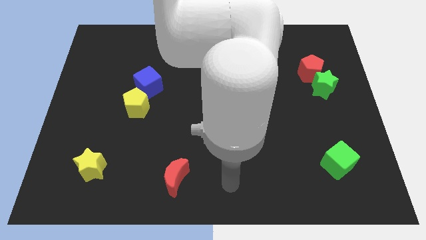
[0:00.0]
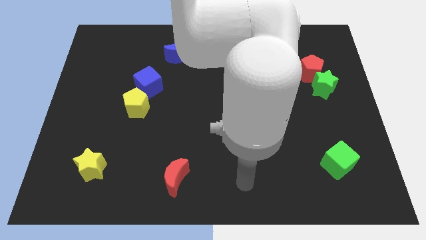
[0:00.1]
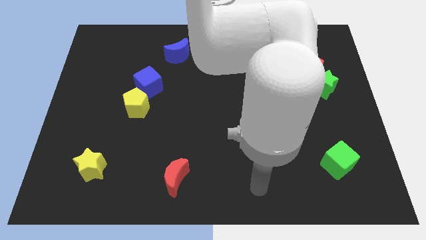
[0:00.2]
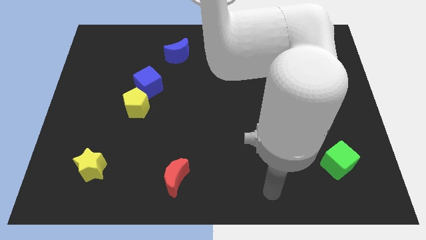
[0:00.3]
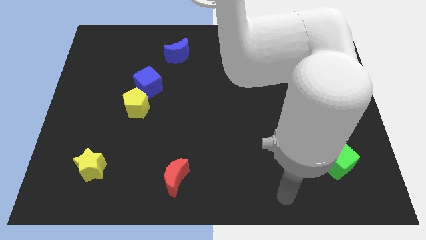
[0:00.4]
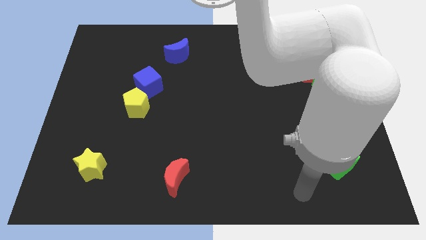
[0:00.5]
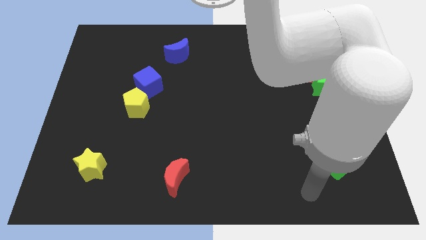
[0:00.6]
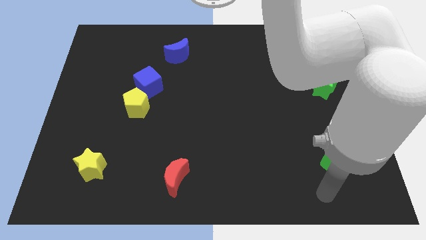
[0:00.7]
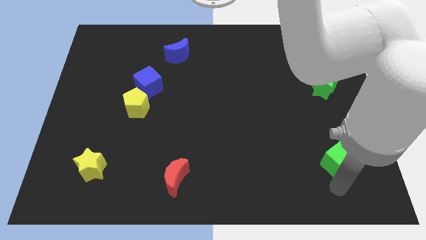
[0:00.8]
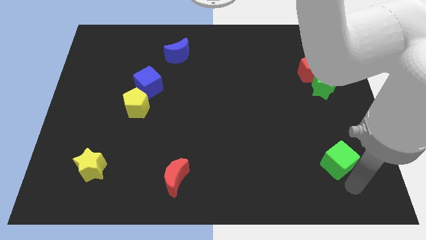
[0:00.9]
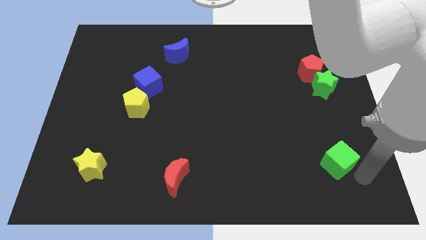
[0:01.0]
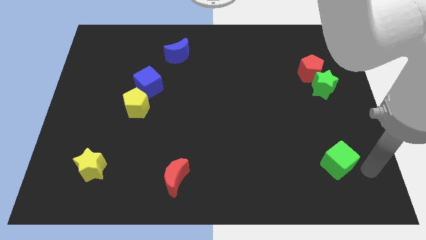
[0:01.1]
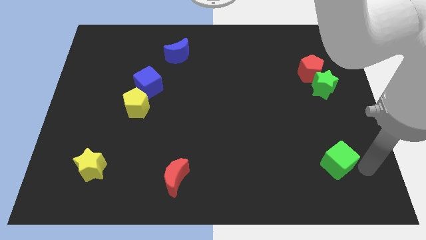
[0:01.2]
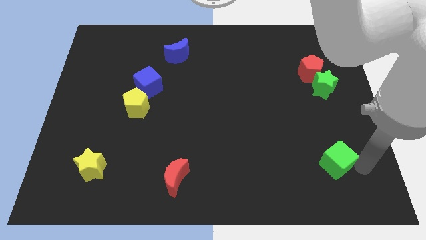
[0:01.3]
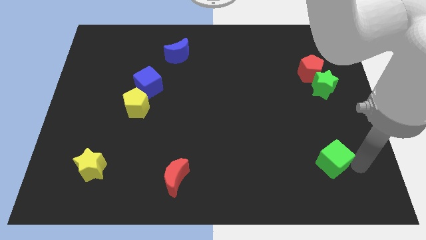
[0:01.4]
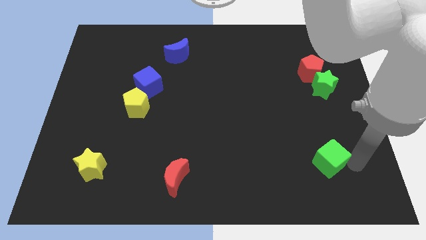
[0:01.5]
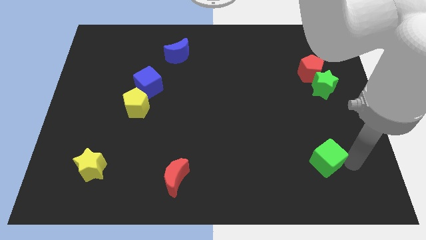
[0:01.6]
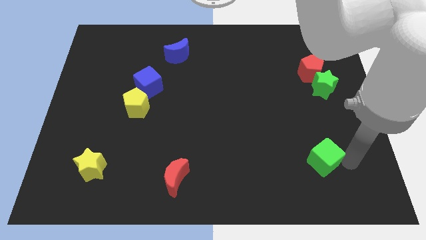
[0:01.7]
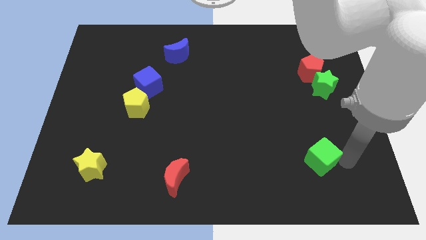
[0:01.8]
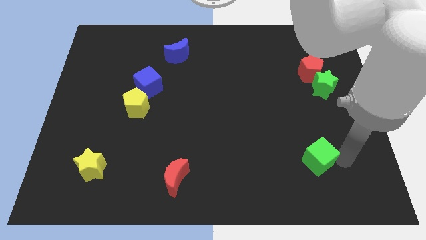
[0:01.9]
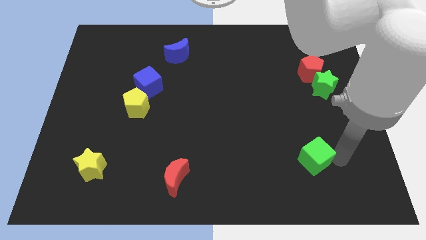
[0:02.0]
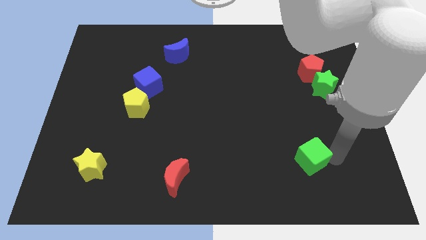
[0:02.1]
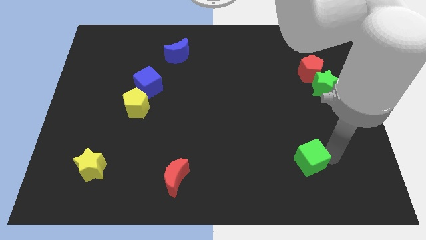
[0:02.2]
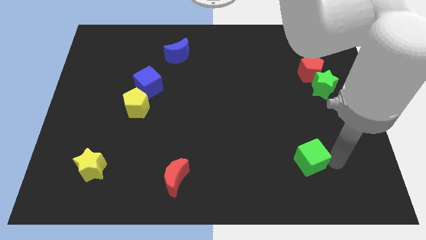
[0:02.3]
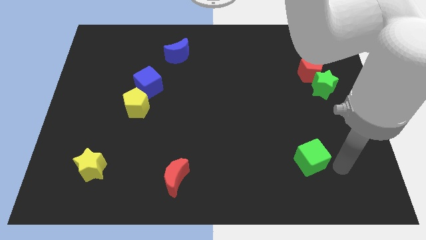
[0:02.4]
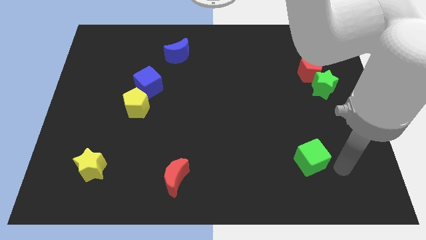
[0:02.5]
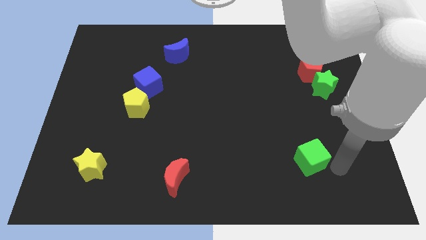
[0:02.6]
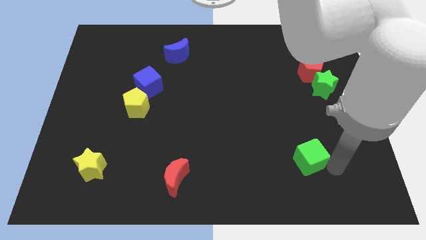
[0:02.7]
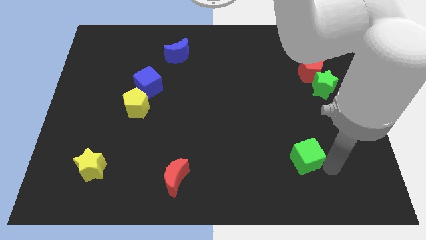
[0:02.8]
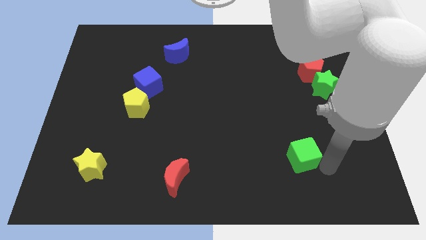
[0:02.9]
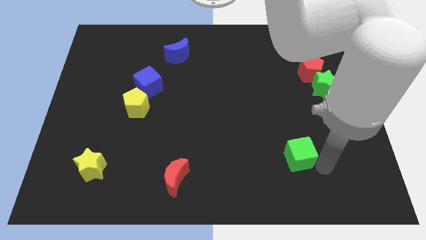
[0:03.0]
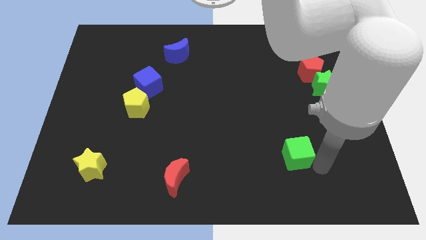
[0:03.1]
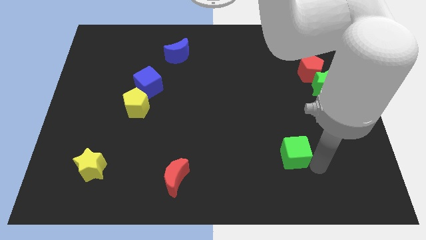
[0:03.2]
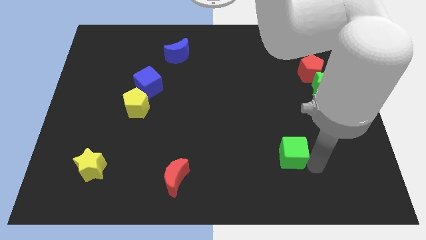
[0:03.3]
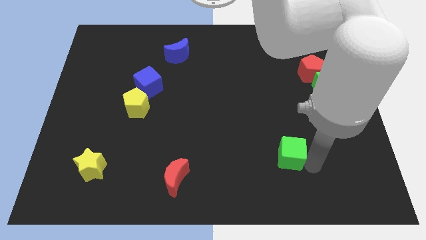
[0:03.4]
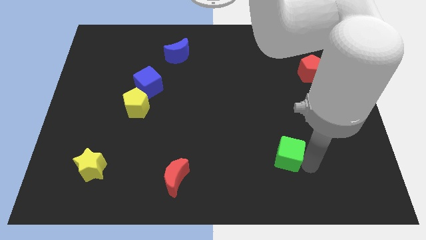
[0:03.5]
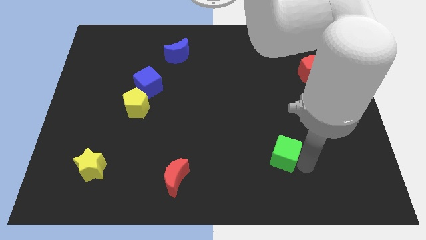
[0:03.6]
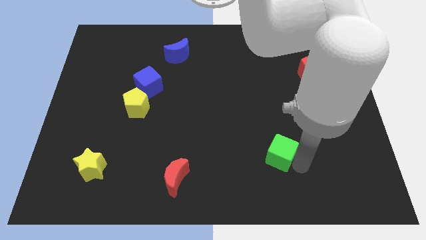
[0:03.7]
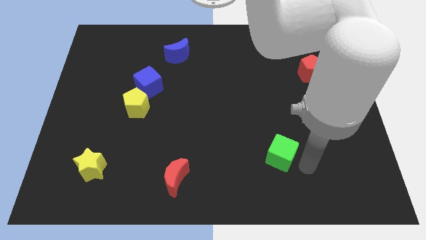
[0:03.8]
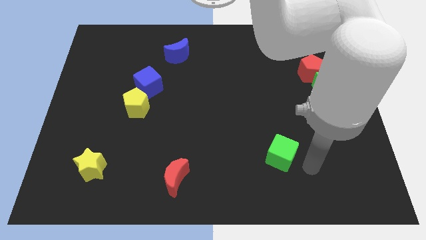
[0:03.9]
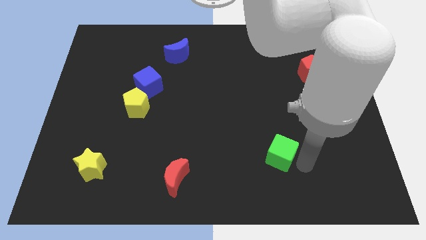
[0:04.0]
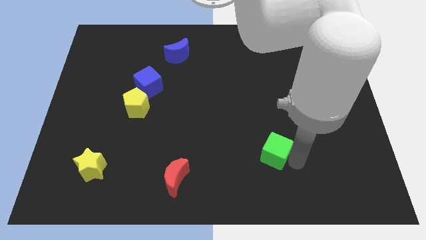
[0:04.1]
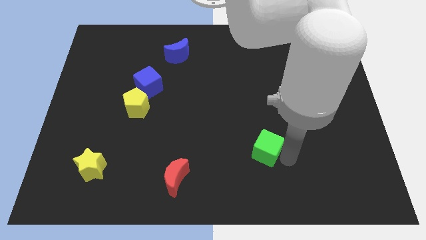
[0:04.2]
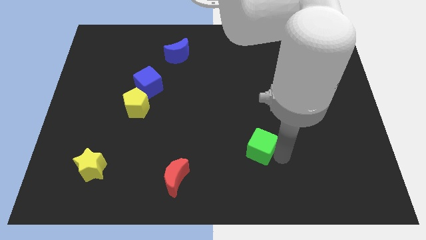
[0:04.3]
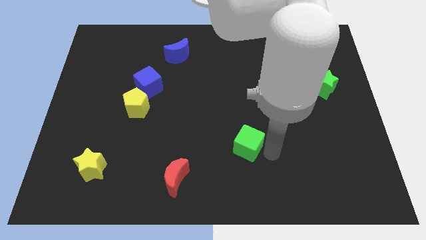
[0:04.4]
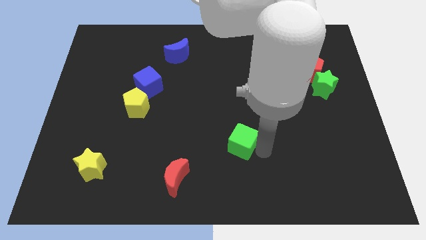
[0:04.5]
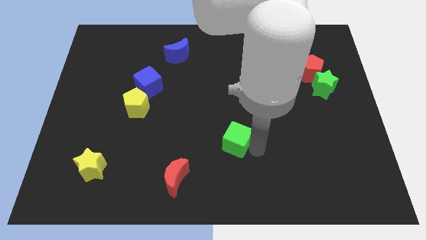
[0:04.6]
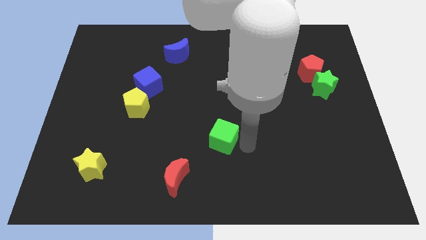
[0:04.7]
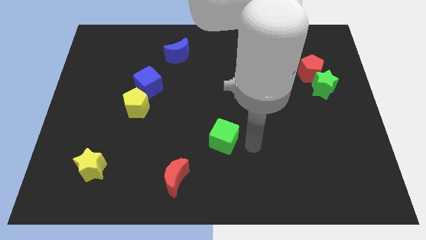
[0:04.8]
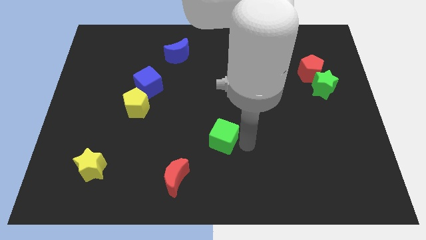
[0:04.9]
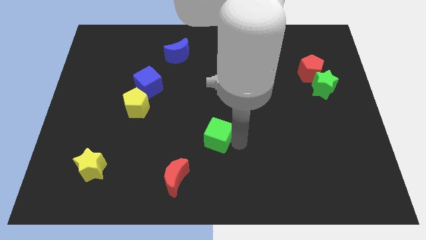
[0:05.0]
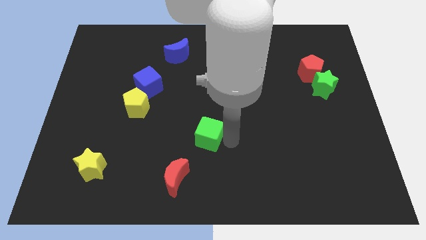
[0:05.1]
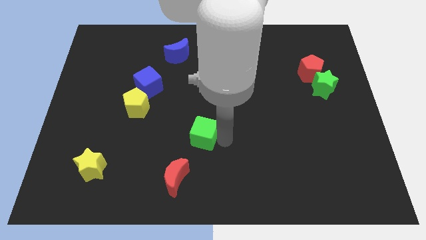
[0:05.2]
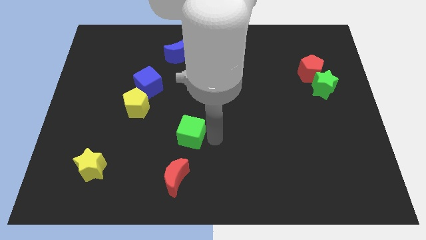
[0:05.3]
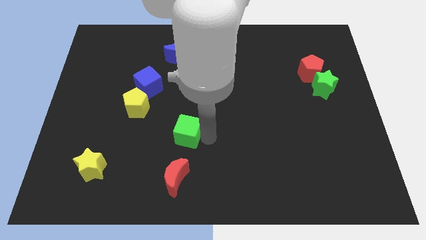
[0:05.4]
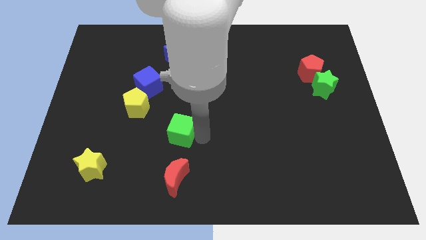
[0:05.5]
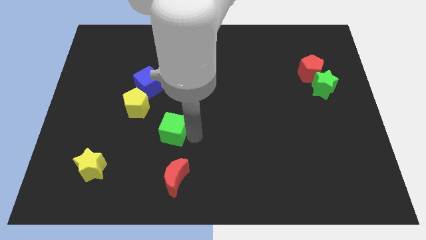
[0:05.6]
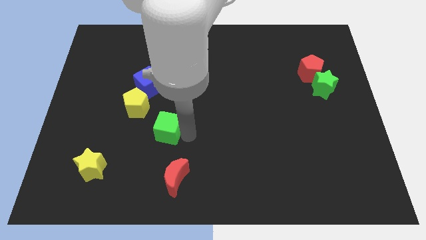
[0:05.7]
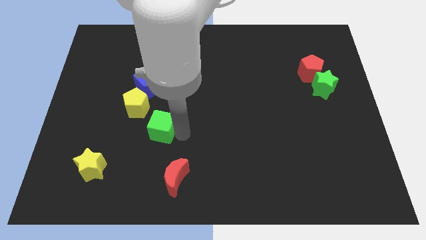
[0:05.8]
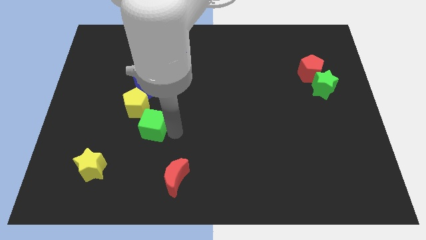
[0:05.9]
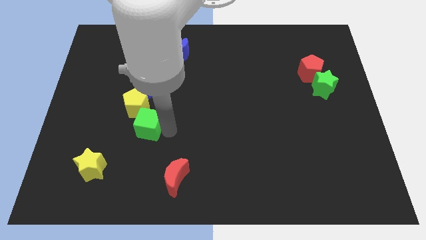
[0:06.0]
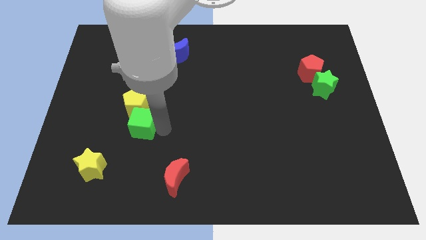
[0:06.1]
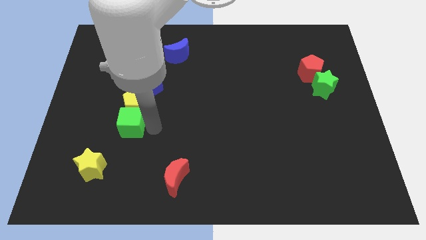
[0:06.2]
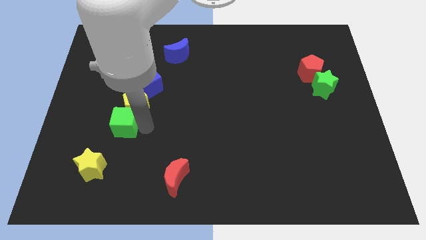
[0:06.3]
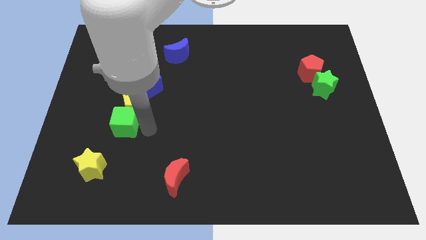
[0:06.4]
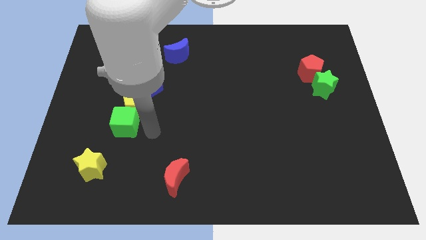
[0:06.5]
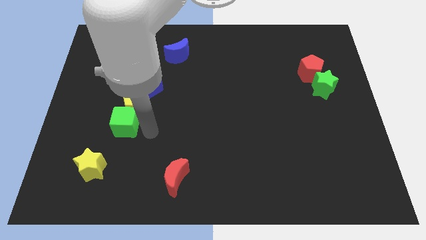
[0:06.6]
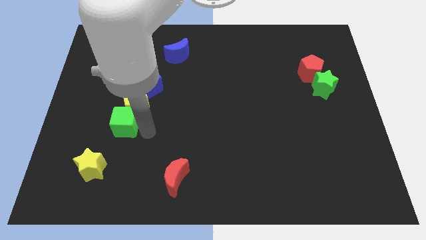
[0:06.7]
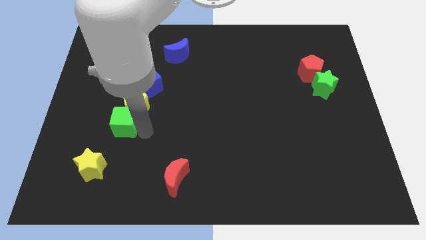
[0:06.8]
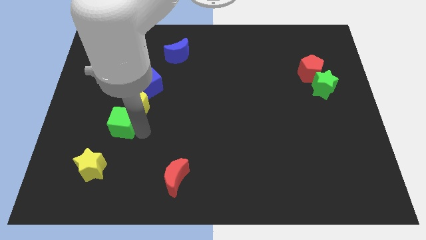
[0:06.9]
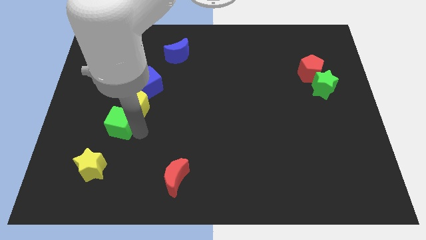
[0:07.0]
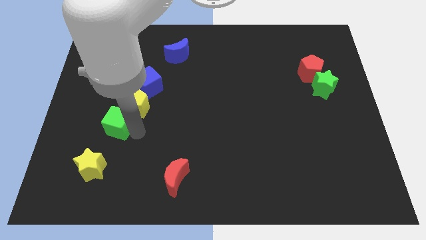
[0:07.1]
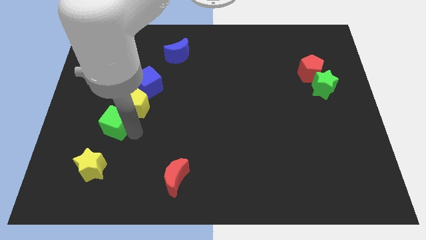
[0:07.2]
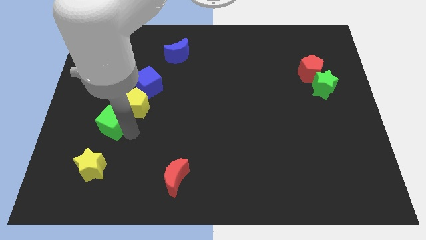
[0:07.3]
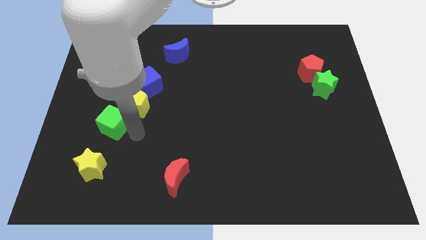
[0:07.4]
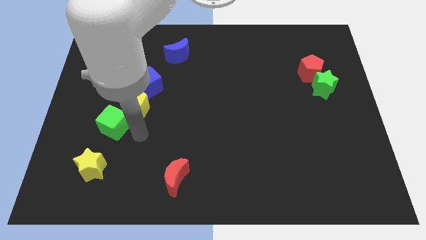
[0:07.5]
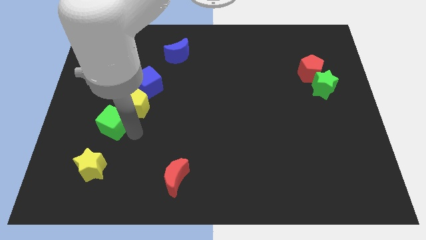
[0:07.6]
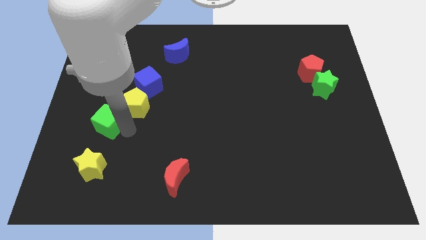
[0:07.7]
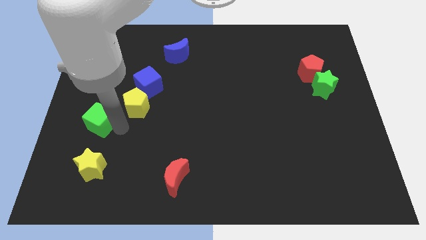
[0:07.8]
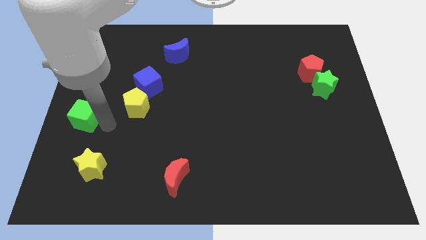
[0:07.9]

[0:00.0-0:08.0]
slide the green cube to the center left

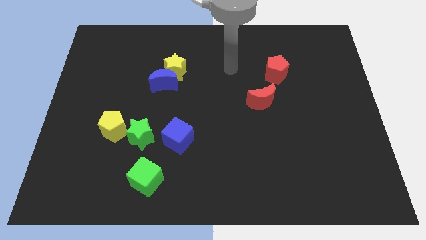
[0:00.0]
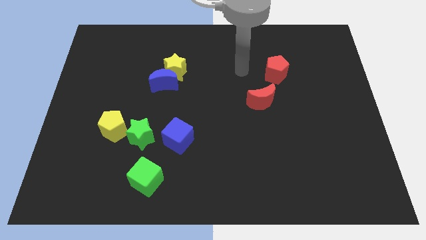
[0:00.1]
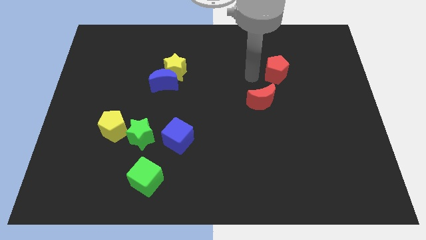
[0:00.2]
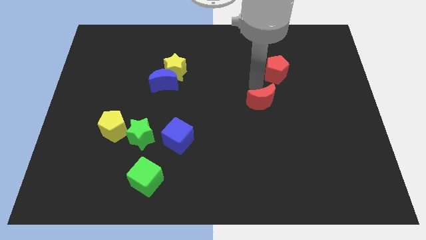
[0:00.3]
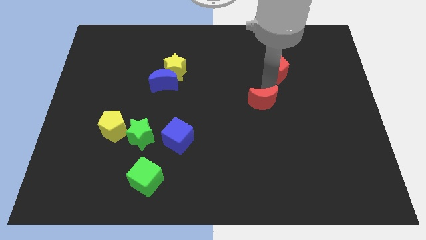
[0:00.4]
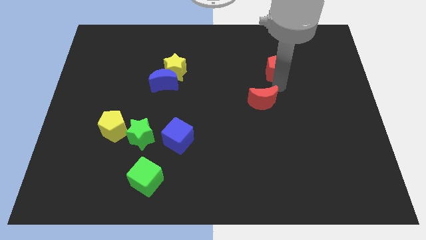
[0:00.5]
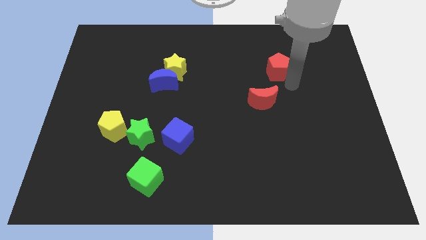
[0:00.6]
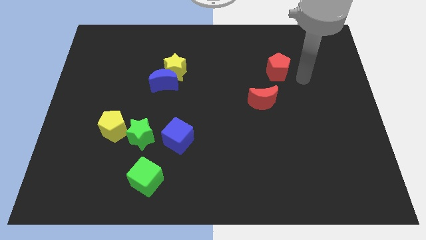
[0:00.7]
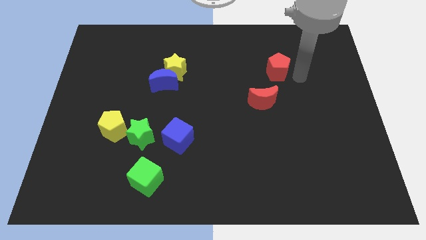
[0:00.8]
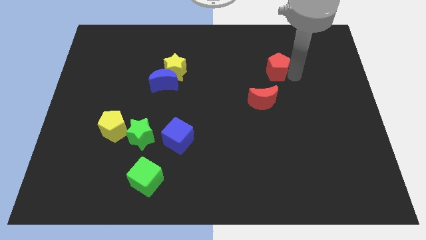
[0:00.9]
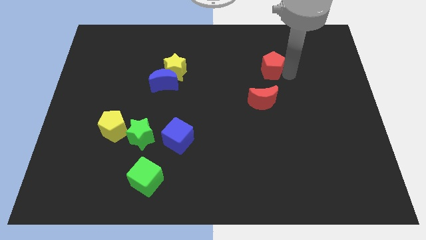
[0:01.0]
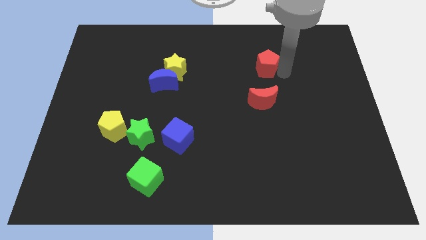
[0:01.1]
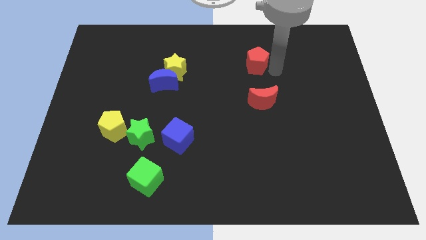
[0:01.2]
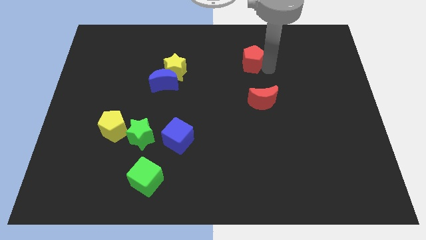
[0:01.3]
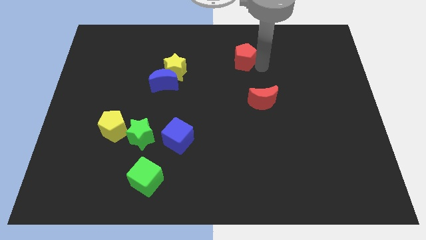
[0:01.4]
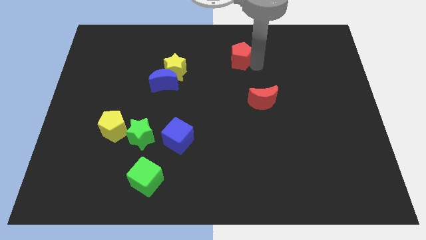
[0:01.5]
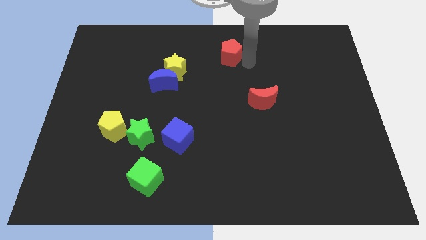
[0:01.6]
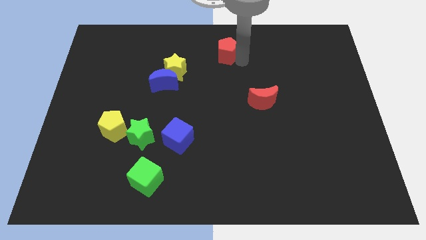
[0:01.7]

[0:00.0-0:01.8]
put the red pentagon to the top
